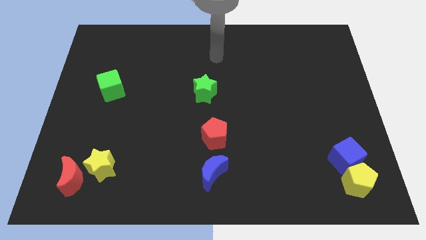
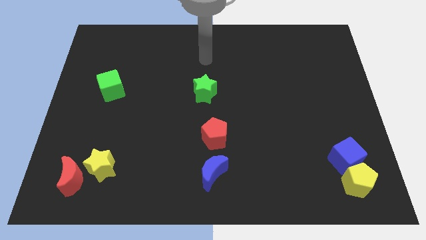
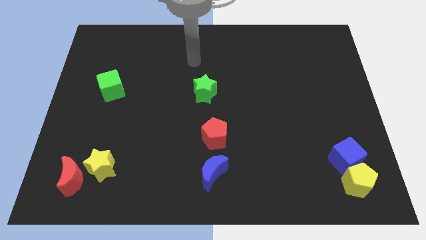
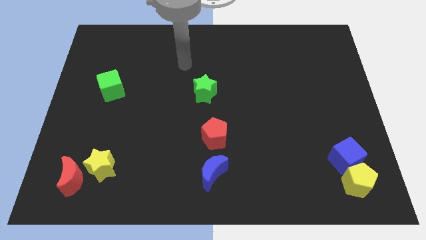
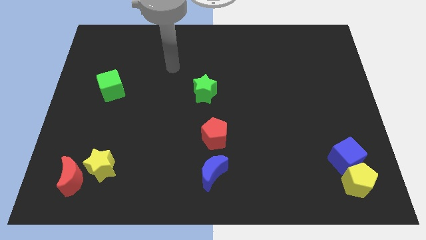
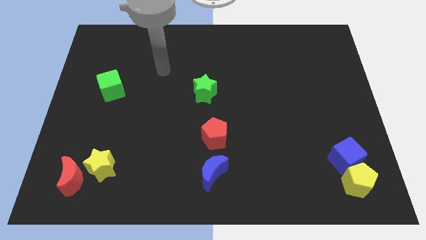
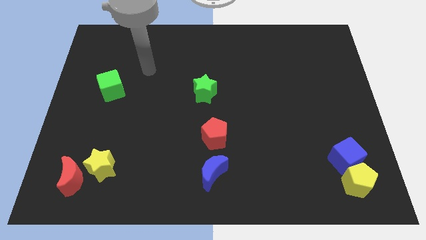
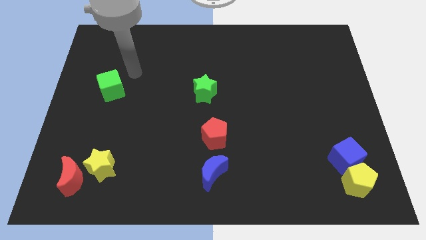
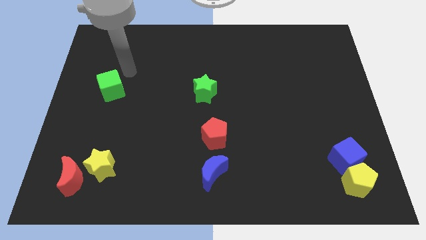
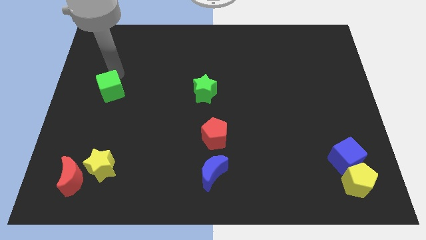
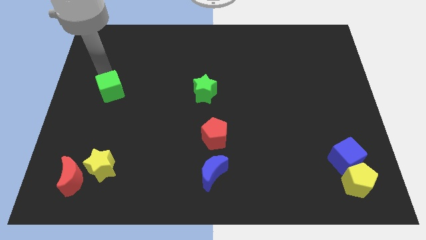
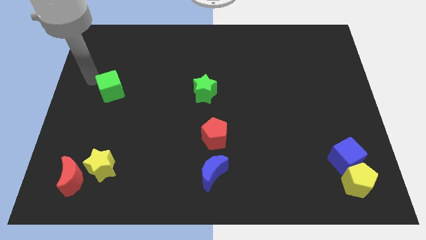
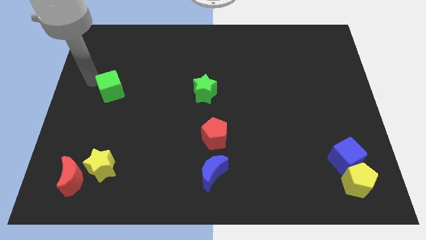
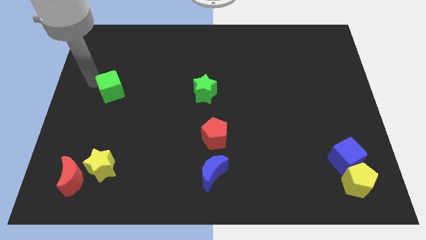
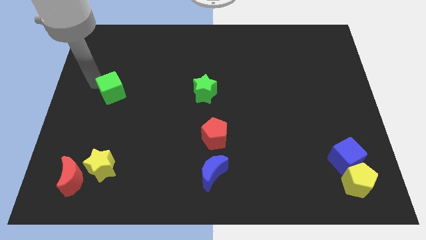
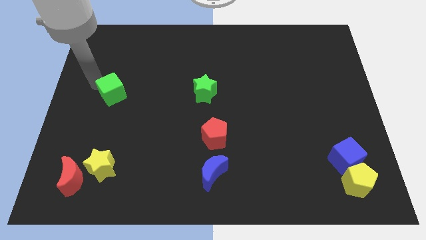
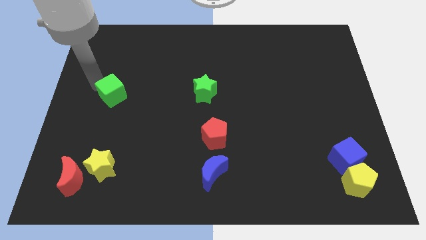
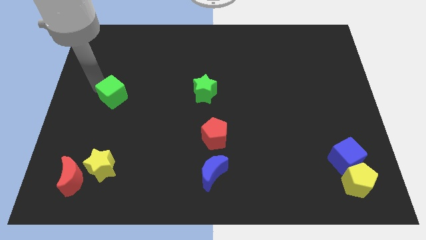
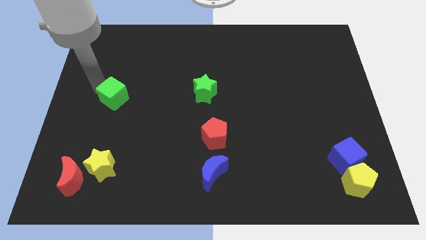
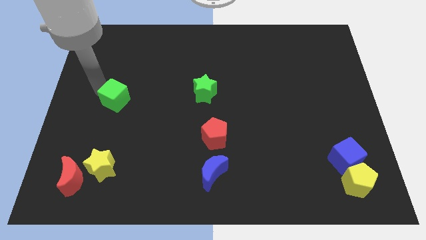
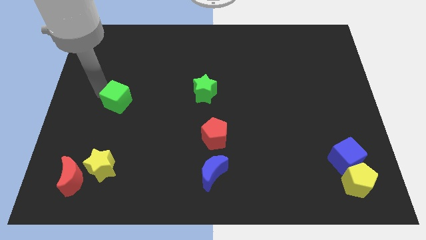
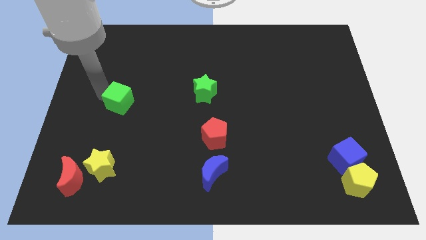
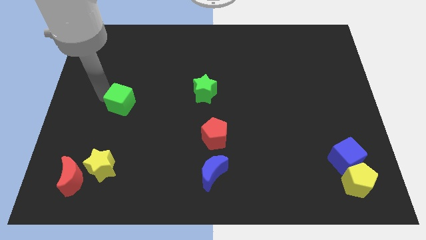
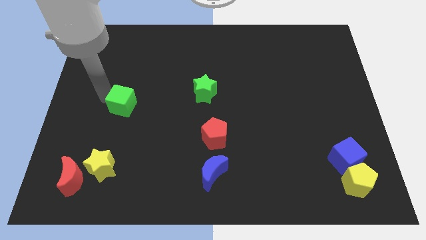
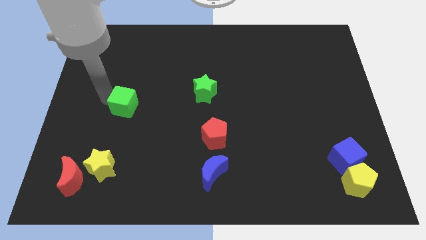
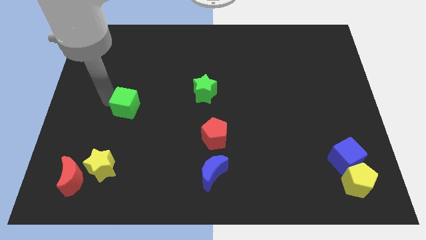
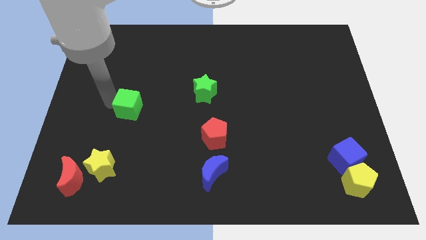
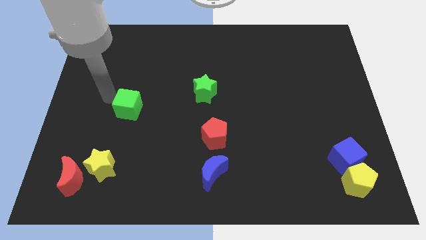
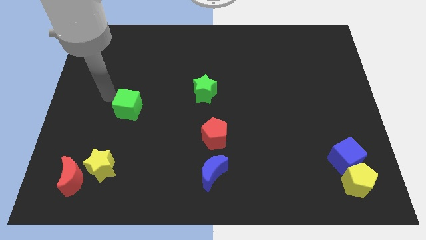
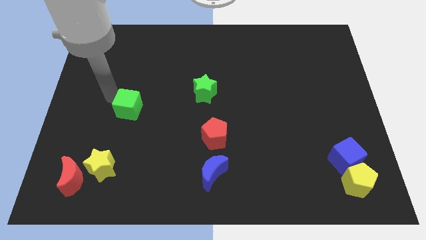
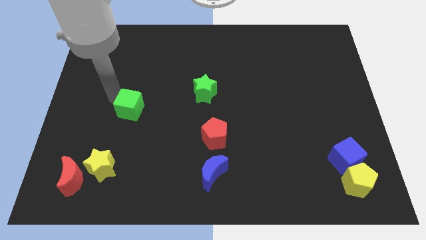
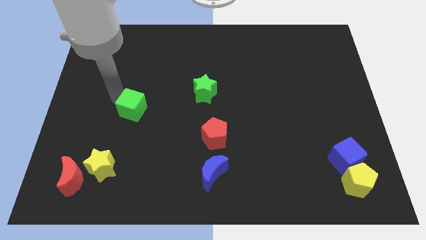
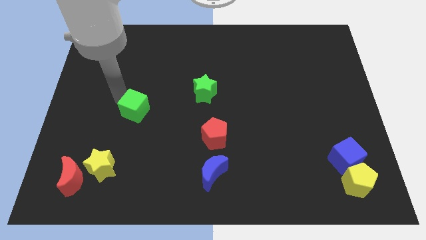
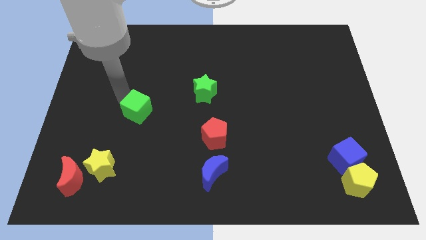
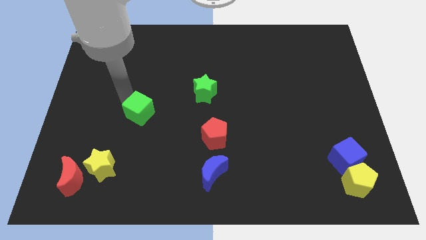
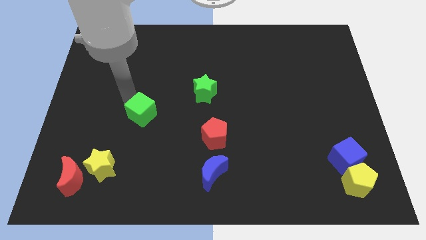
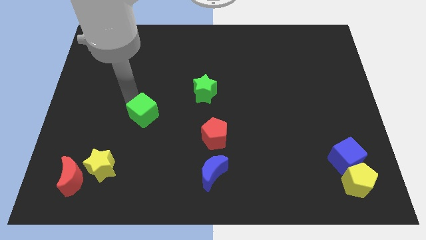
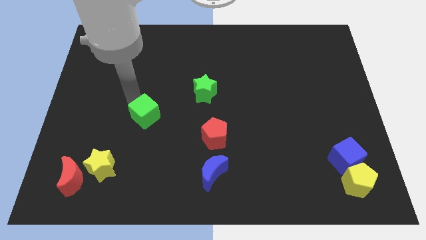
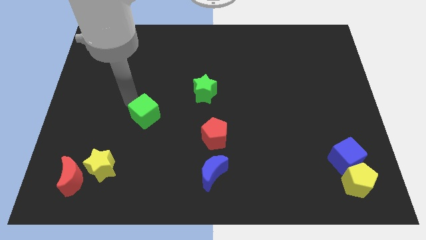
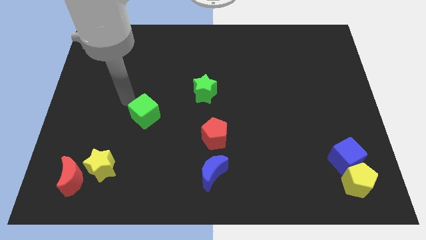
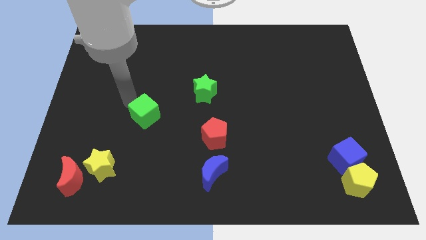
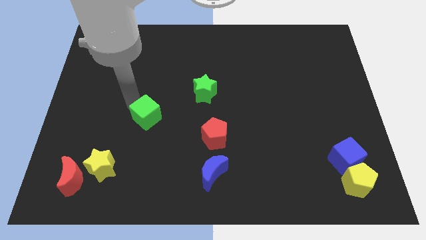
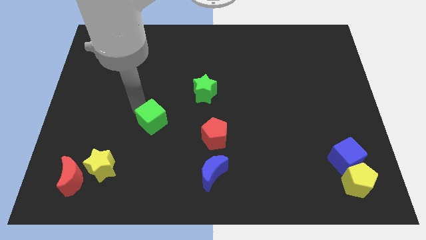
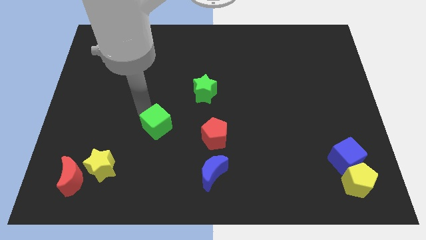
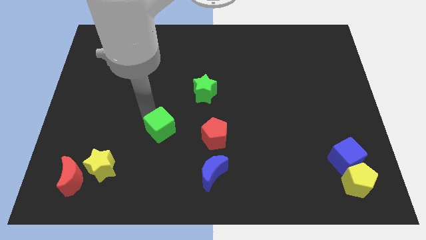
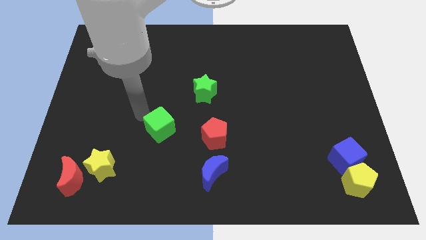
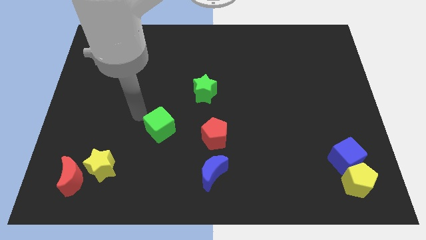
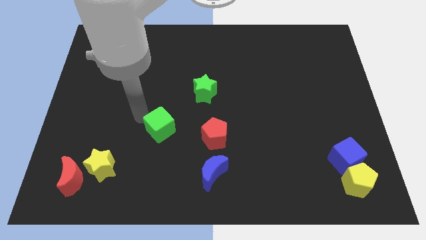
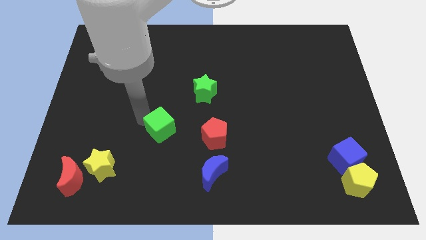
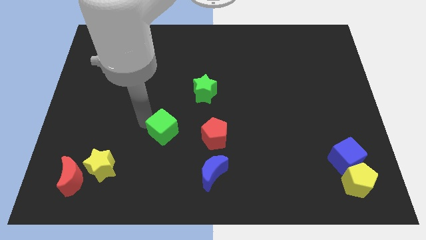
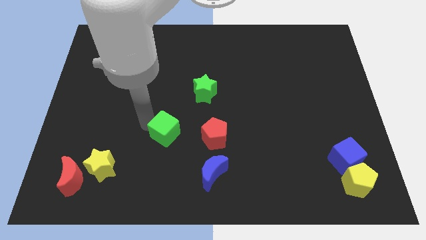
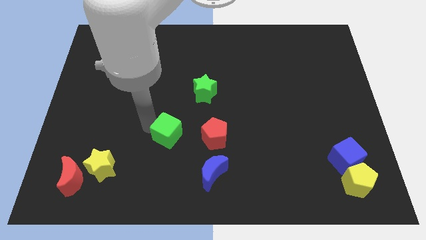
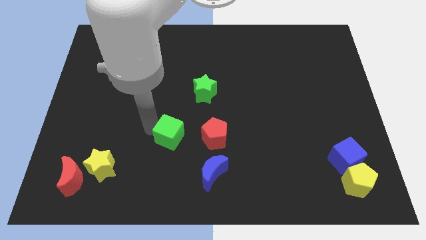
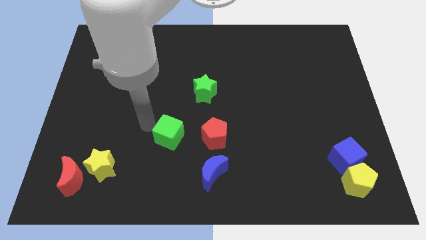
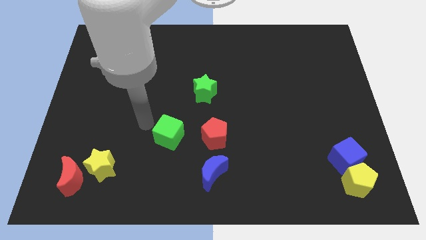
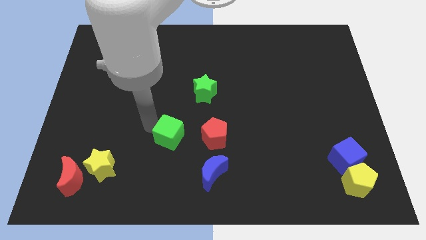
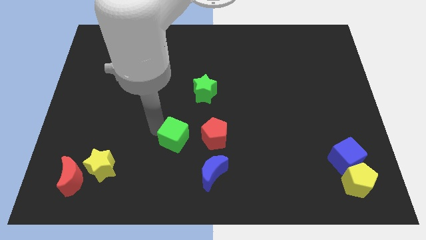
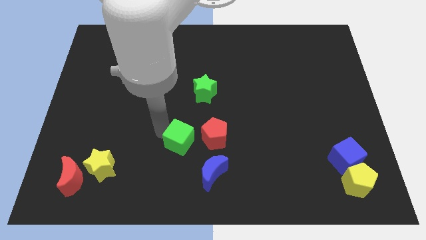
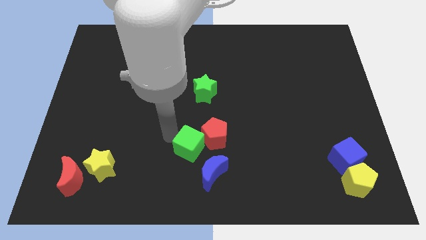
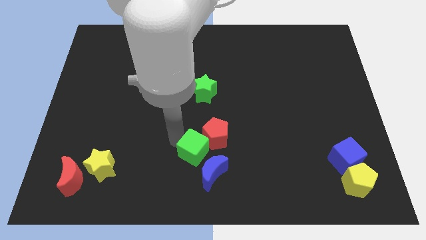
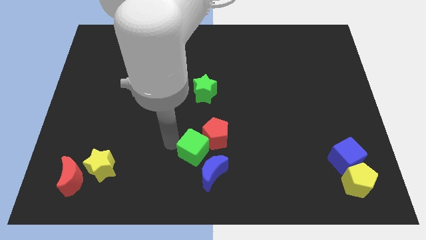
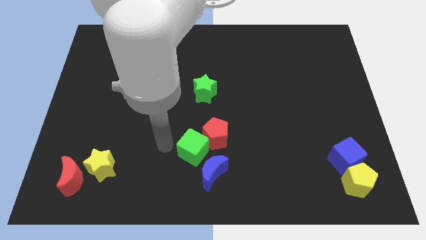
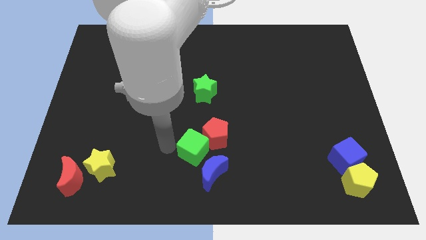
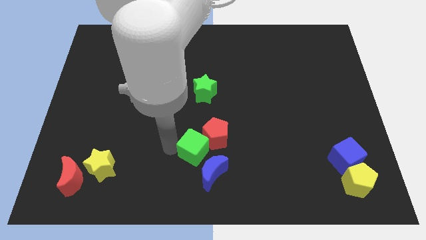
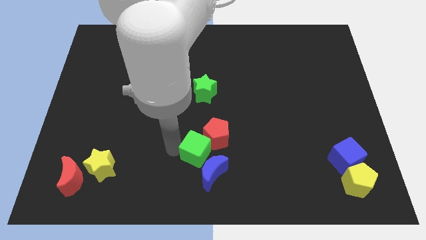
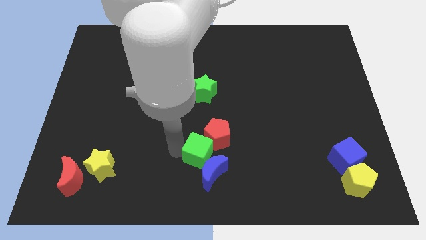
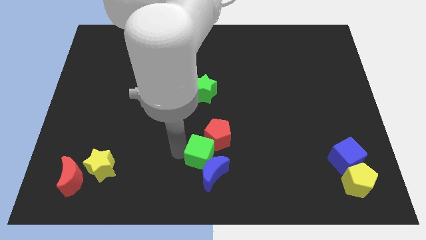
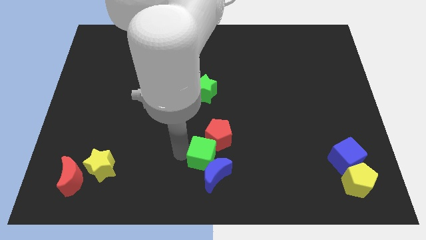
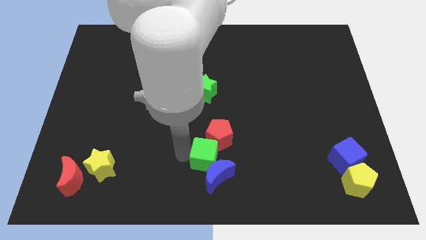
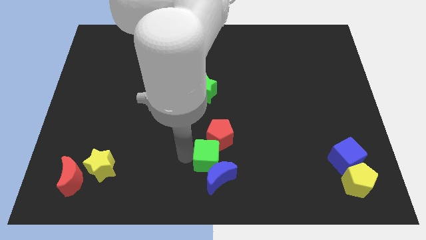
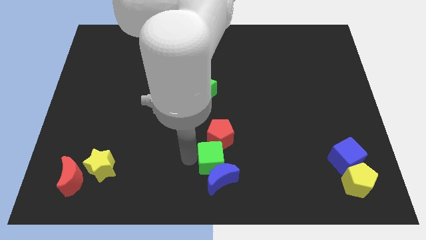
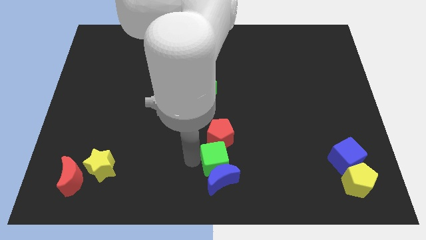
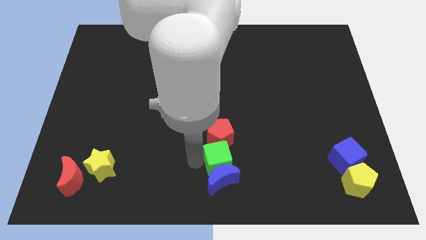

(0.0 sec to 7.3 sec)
move the green cube diagonally down and to the right of the red pentagon
